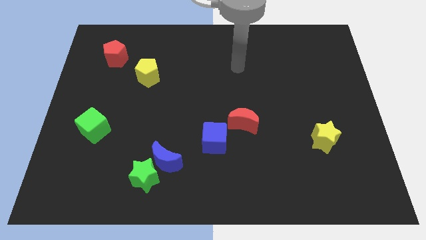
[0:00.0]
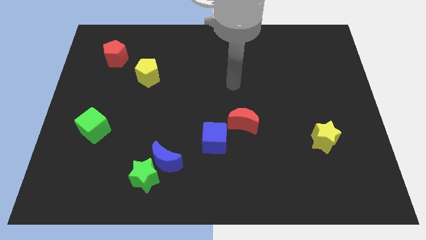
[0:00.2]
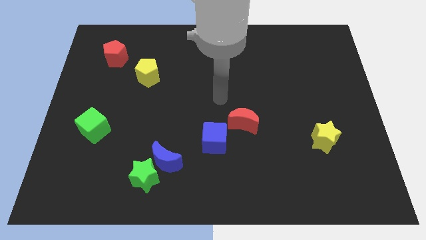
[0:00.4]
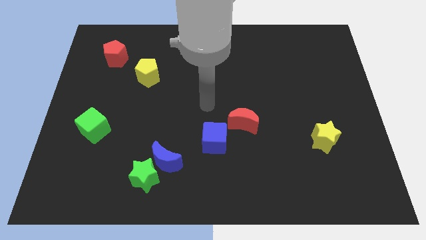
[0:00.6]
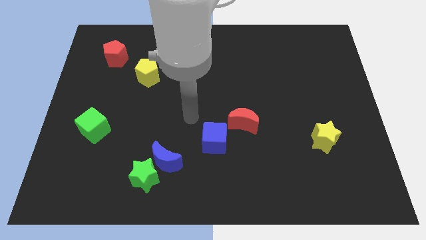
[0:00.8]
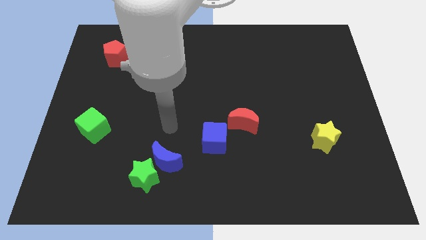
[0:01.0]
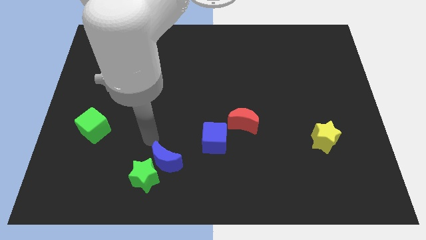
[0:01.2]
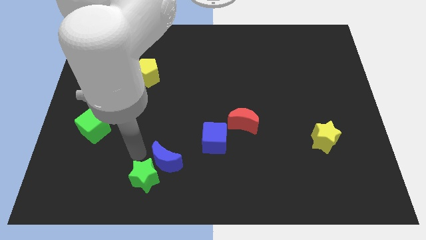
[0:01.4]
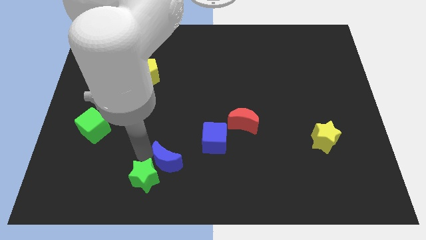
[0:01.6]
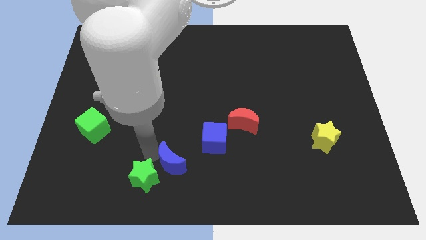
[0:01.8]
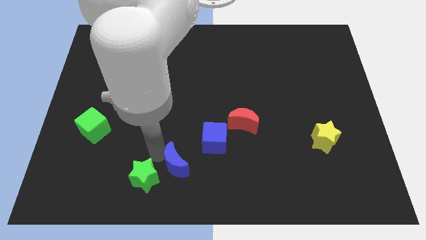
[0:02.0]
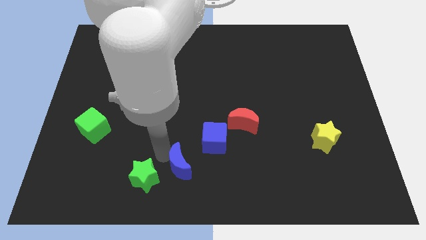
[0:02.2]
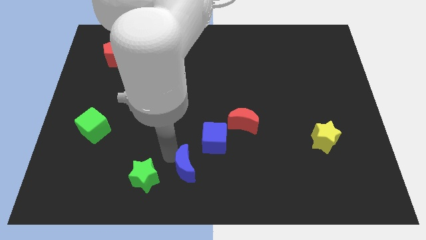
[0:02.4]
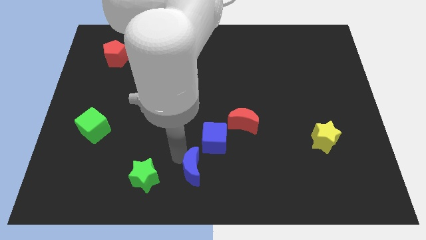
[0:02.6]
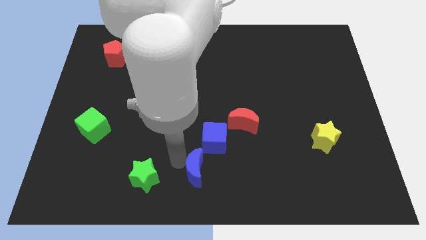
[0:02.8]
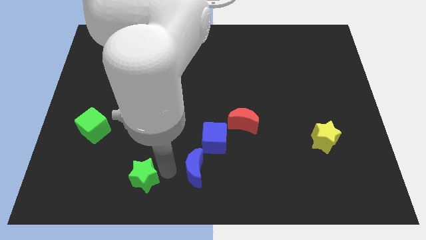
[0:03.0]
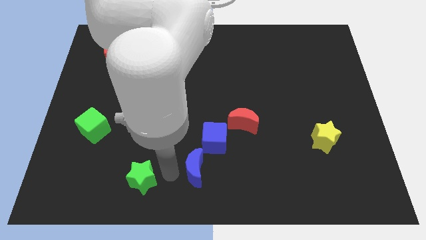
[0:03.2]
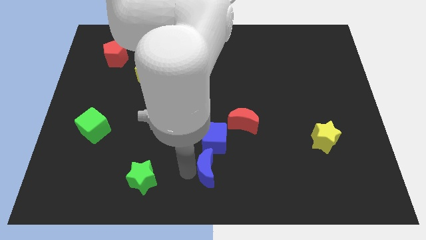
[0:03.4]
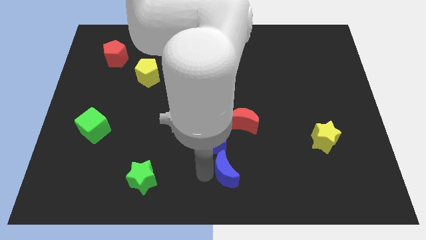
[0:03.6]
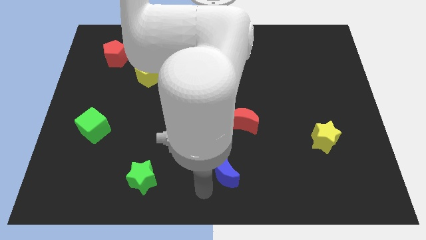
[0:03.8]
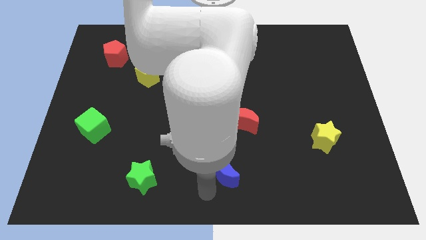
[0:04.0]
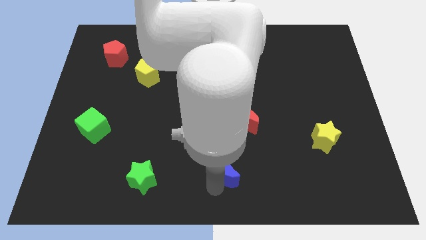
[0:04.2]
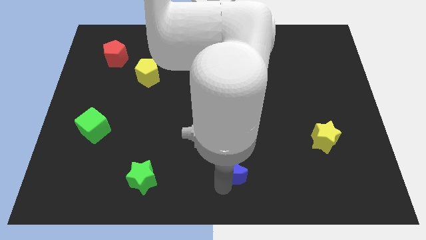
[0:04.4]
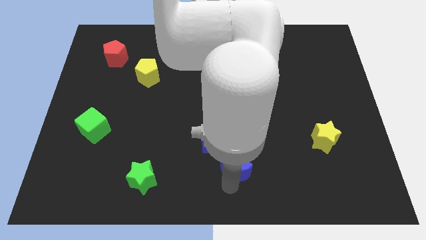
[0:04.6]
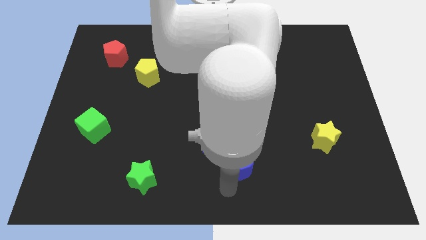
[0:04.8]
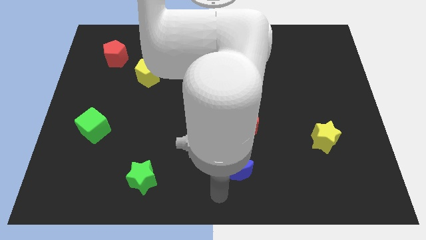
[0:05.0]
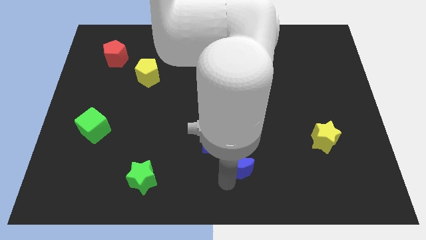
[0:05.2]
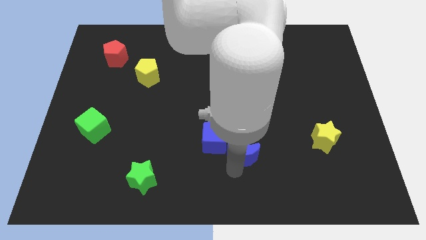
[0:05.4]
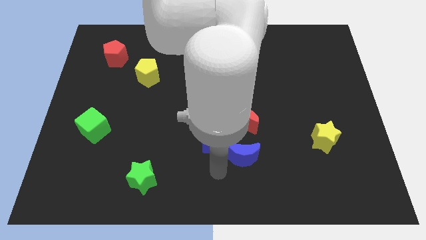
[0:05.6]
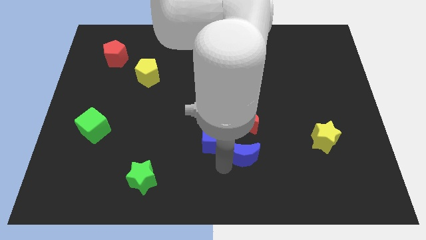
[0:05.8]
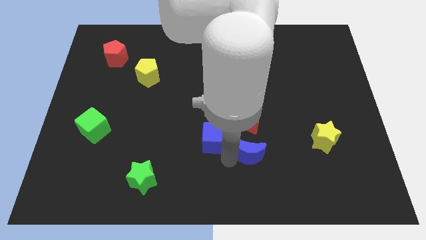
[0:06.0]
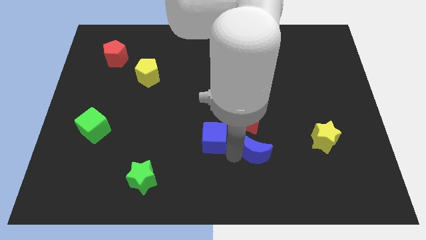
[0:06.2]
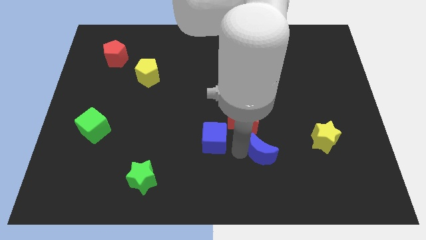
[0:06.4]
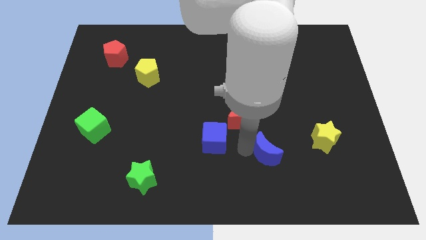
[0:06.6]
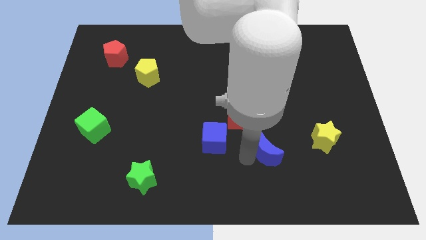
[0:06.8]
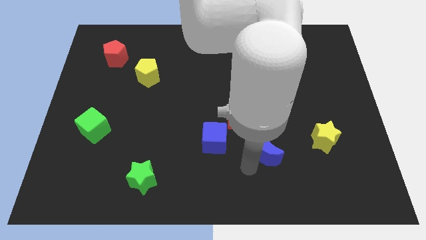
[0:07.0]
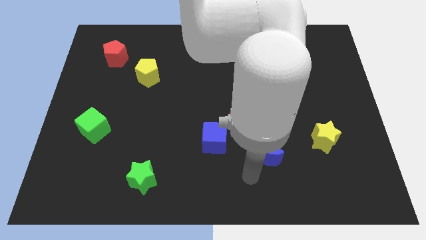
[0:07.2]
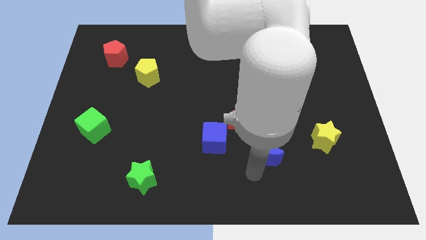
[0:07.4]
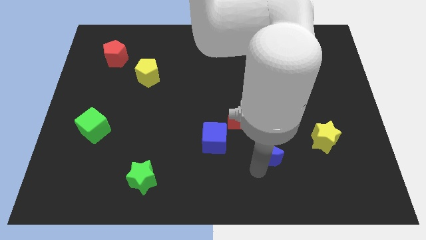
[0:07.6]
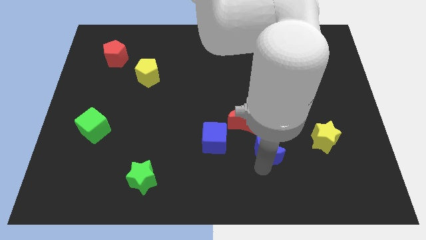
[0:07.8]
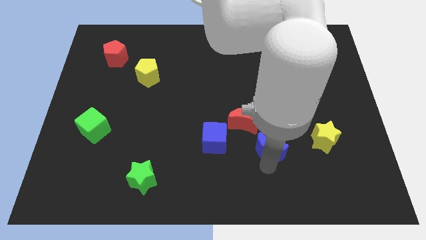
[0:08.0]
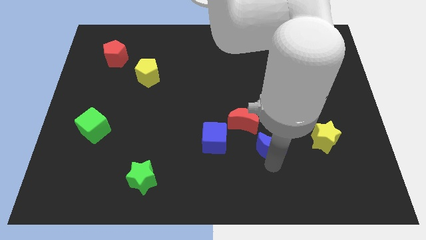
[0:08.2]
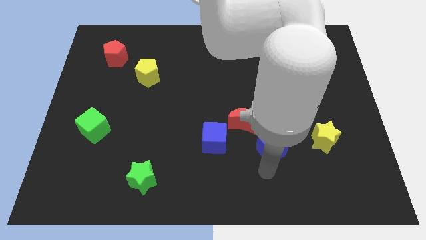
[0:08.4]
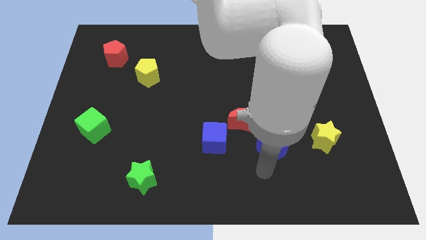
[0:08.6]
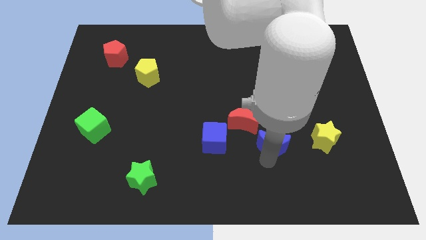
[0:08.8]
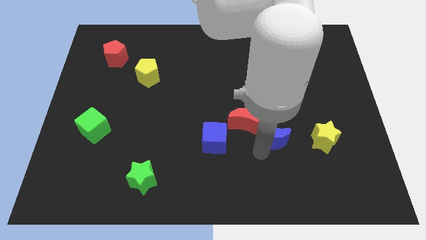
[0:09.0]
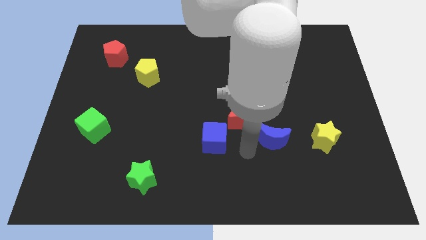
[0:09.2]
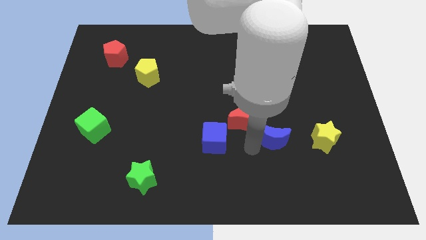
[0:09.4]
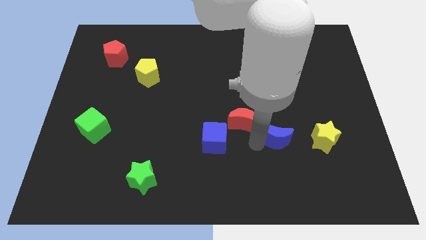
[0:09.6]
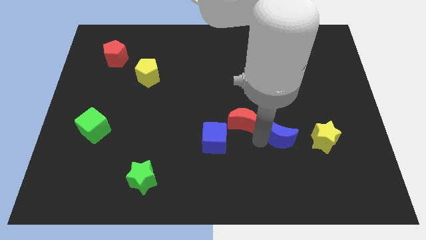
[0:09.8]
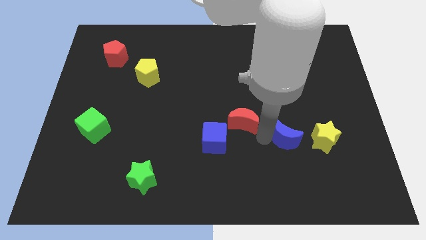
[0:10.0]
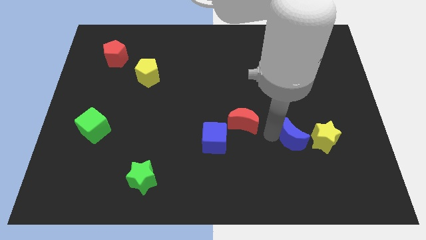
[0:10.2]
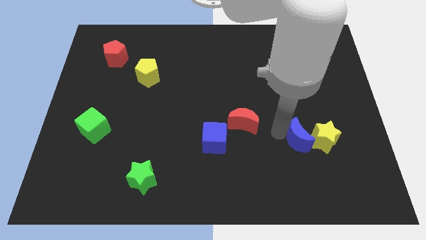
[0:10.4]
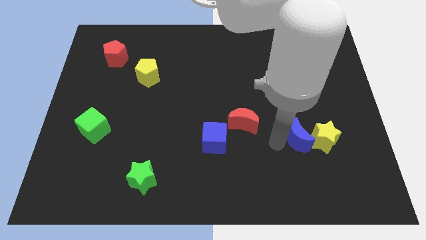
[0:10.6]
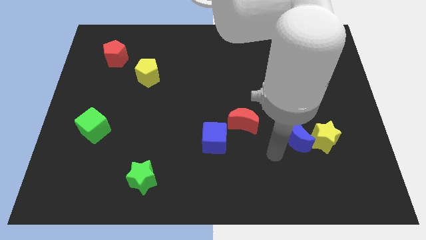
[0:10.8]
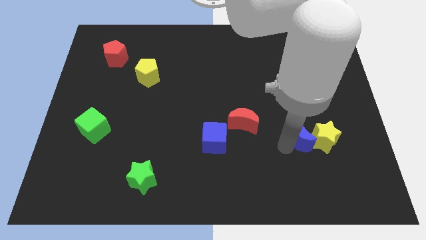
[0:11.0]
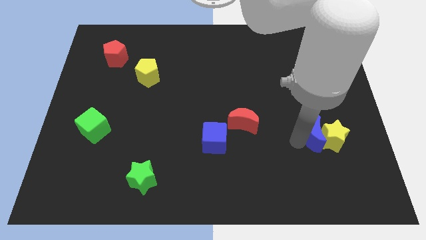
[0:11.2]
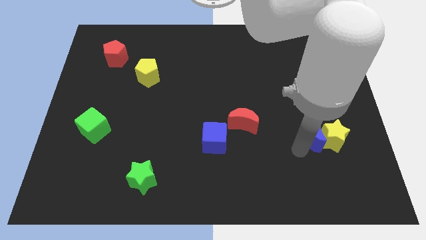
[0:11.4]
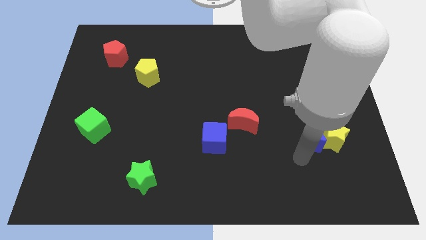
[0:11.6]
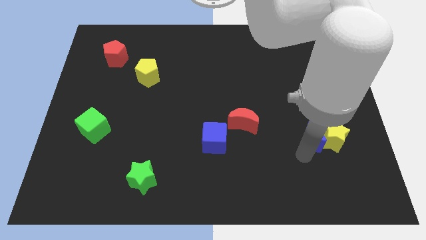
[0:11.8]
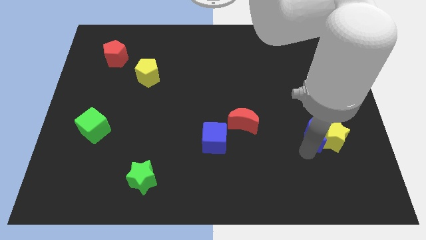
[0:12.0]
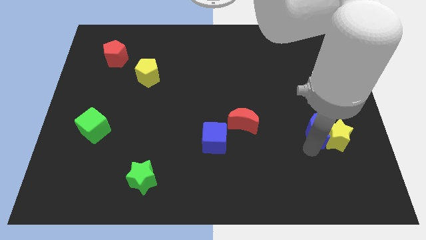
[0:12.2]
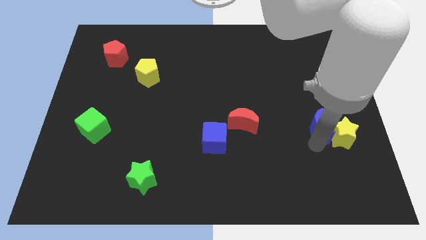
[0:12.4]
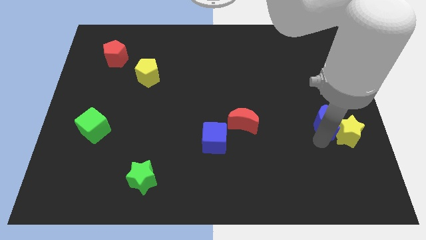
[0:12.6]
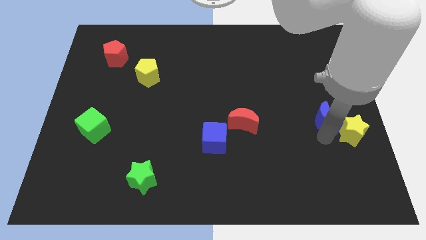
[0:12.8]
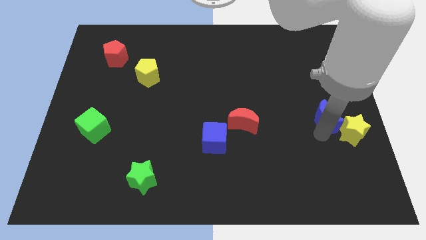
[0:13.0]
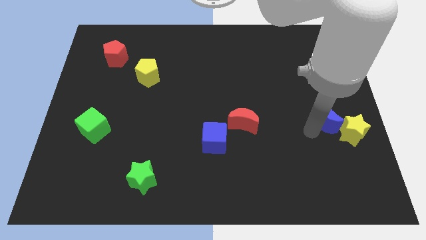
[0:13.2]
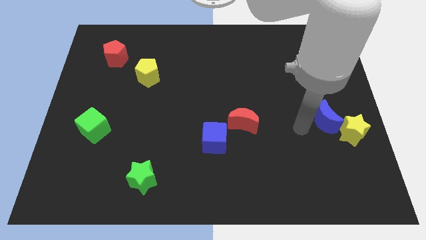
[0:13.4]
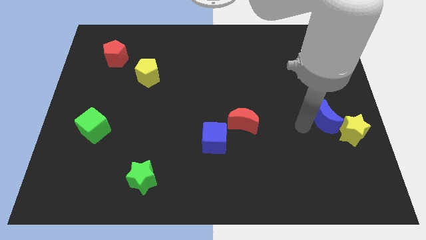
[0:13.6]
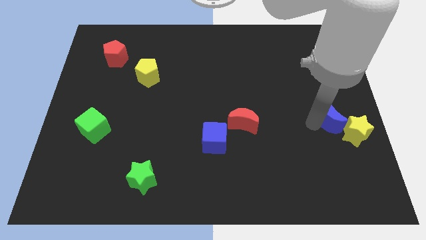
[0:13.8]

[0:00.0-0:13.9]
move the blue moon to the right side of the board
